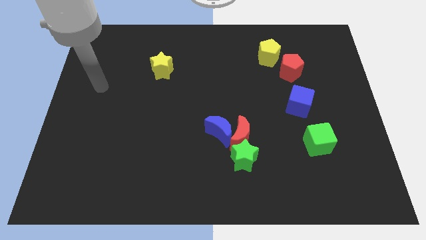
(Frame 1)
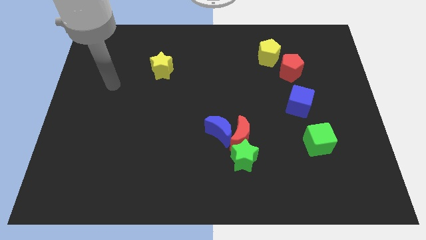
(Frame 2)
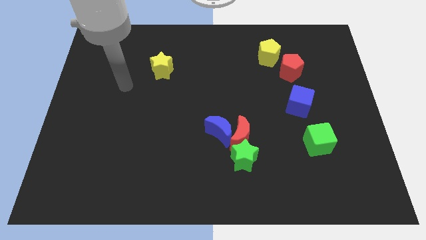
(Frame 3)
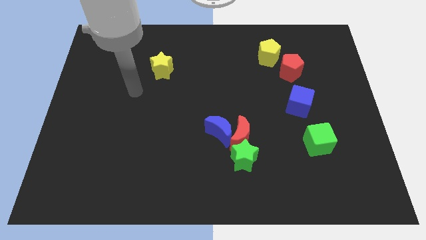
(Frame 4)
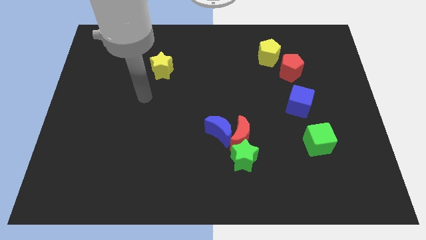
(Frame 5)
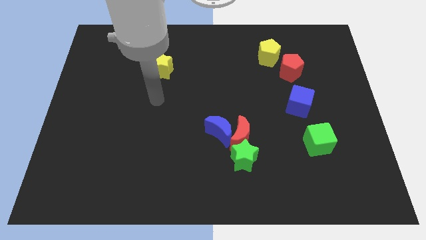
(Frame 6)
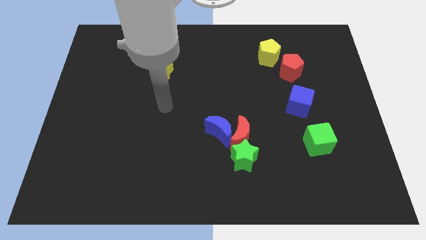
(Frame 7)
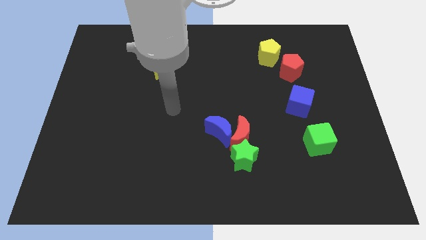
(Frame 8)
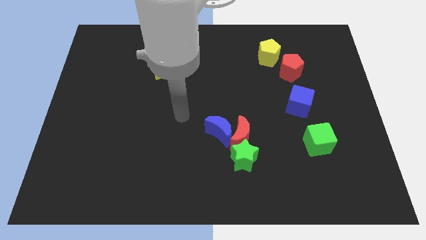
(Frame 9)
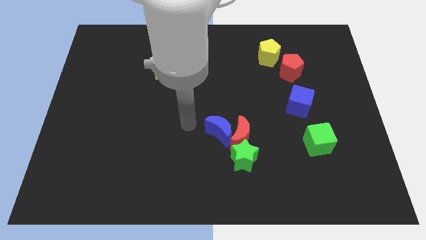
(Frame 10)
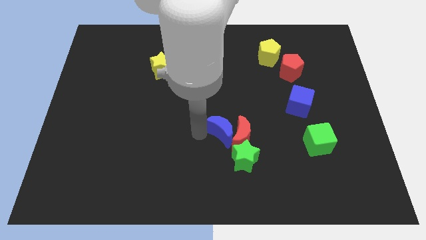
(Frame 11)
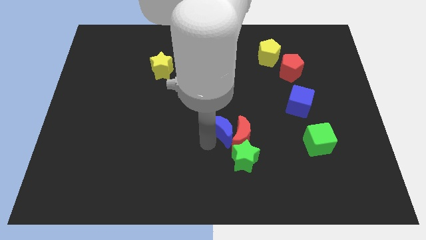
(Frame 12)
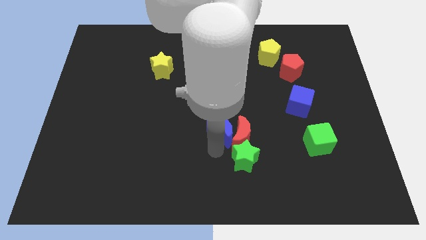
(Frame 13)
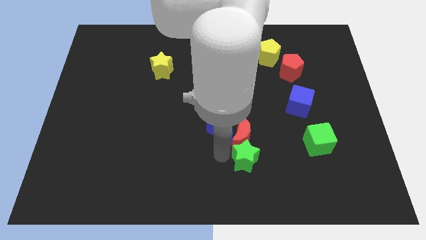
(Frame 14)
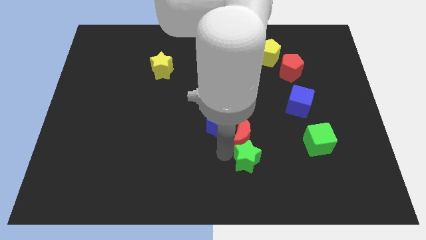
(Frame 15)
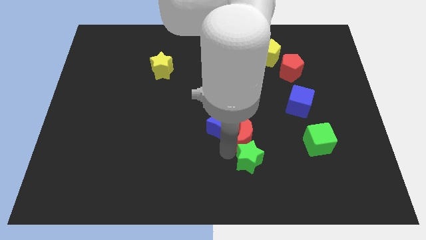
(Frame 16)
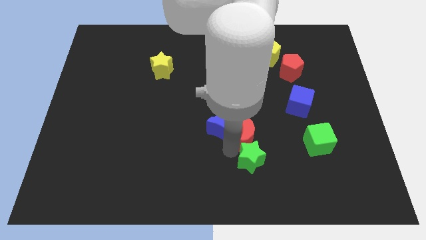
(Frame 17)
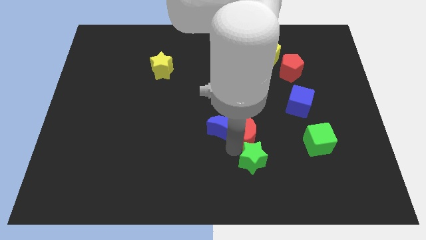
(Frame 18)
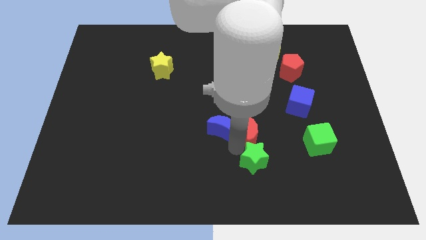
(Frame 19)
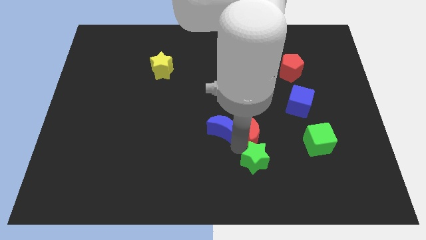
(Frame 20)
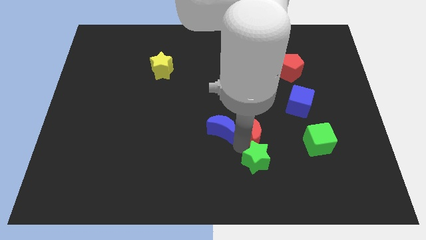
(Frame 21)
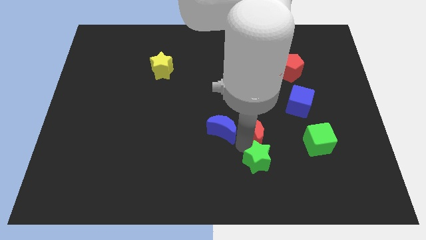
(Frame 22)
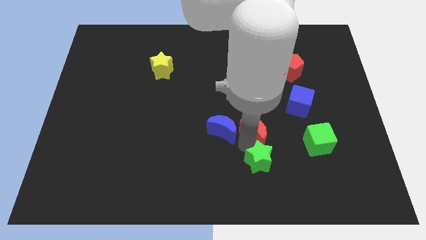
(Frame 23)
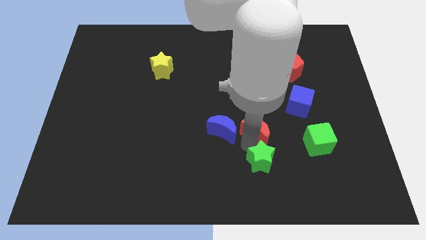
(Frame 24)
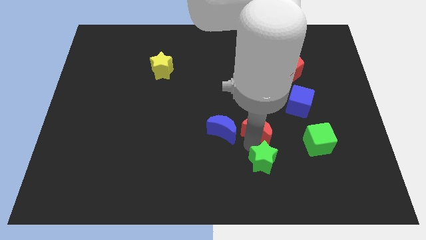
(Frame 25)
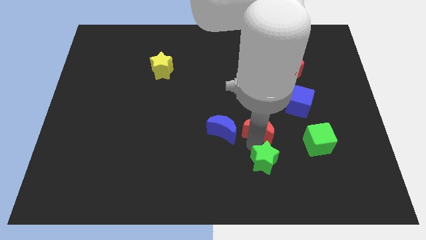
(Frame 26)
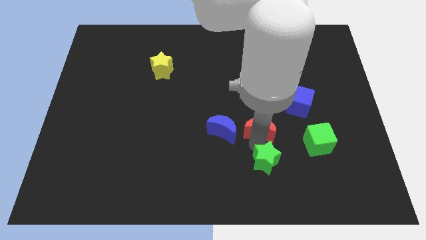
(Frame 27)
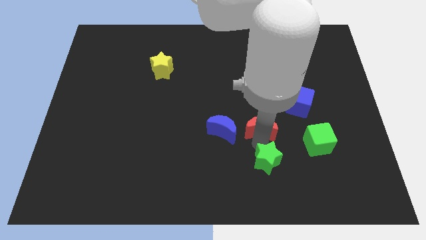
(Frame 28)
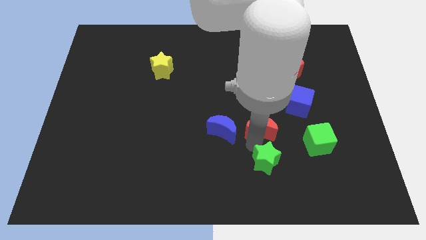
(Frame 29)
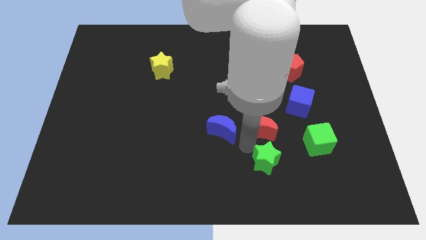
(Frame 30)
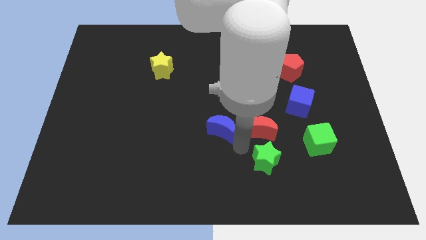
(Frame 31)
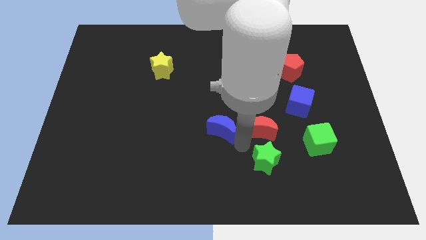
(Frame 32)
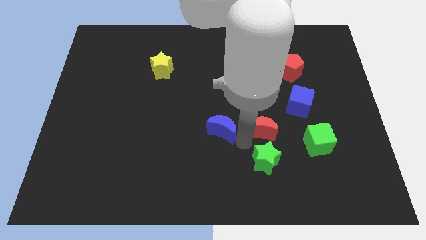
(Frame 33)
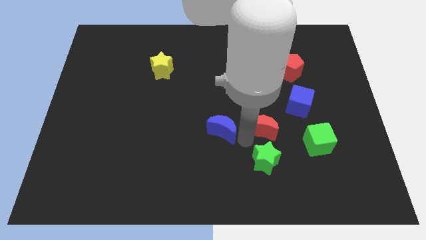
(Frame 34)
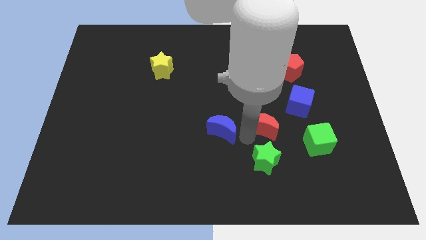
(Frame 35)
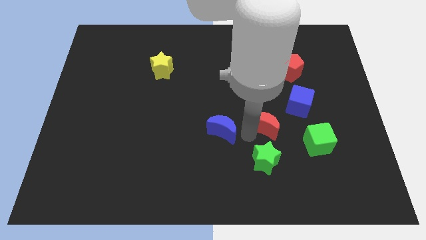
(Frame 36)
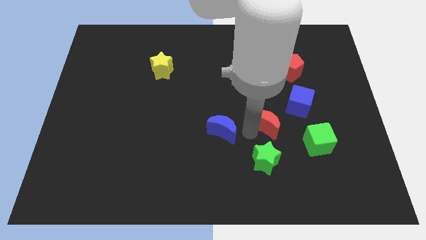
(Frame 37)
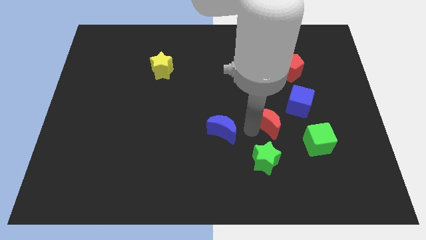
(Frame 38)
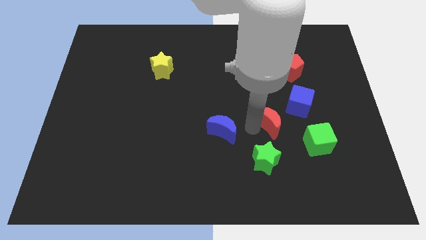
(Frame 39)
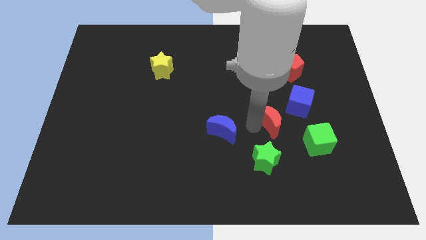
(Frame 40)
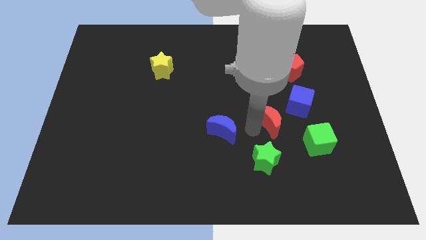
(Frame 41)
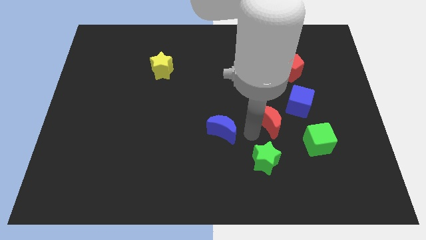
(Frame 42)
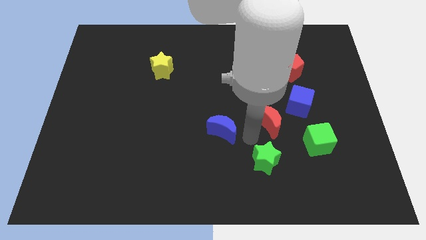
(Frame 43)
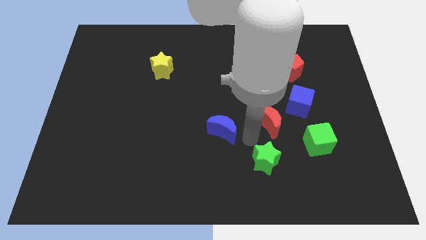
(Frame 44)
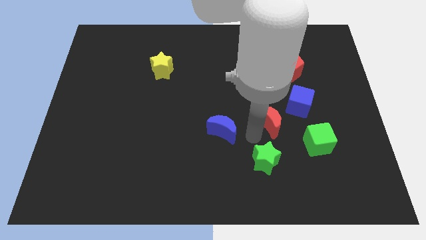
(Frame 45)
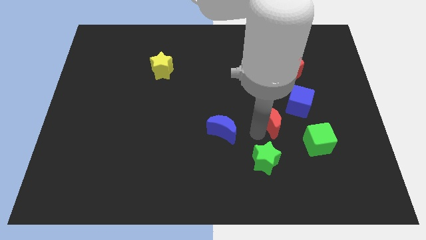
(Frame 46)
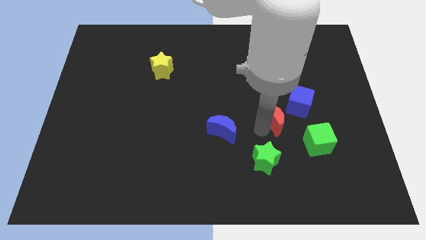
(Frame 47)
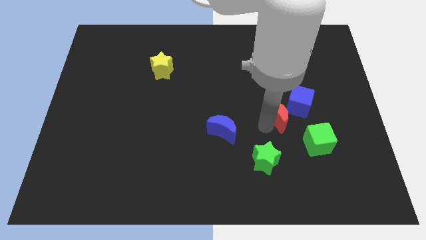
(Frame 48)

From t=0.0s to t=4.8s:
pull the red moon apart from the blue moon and green star

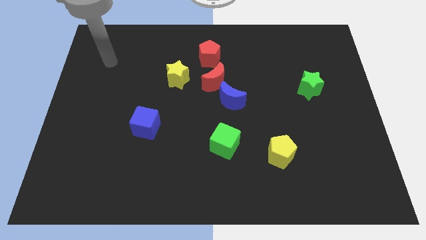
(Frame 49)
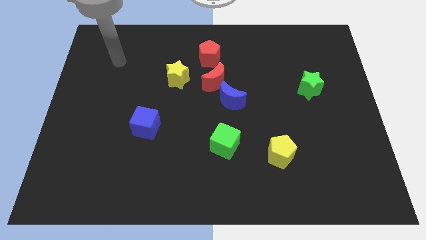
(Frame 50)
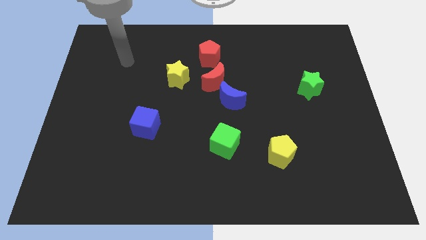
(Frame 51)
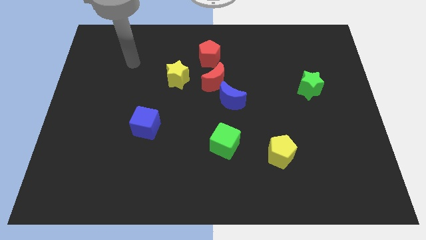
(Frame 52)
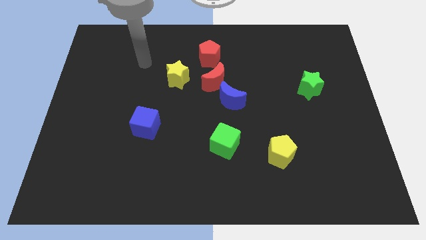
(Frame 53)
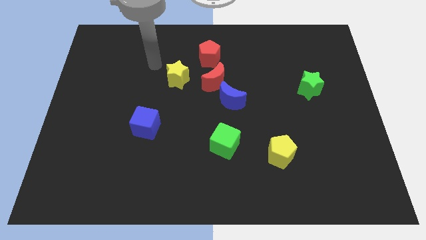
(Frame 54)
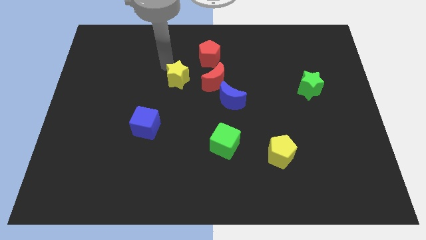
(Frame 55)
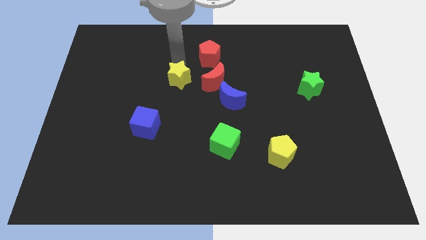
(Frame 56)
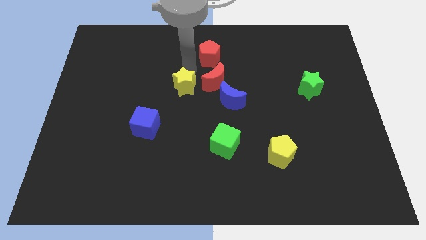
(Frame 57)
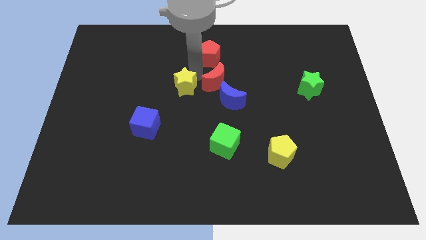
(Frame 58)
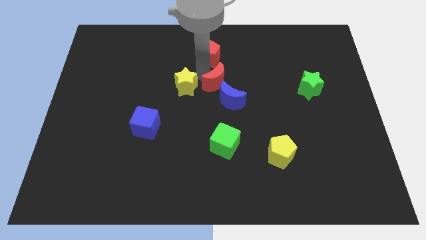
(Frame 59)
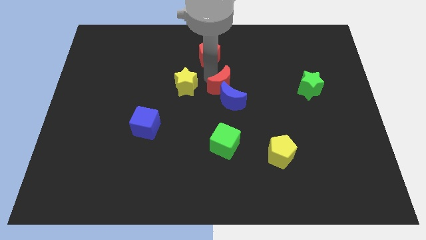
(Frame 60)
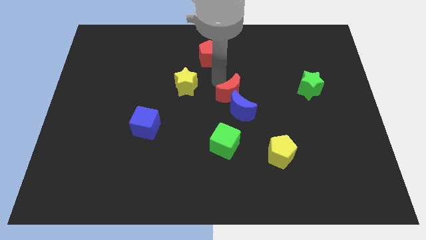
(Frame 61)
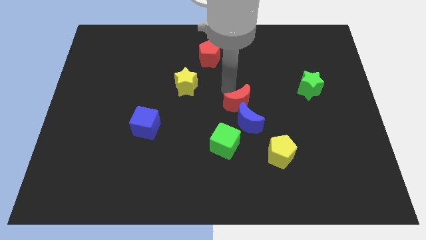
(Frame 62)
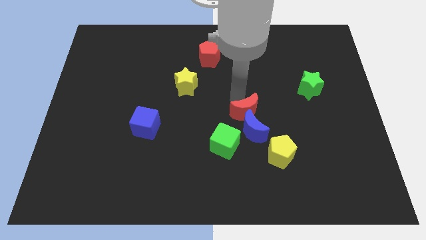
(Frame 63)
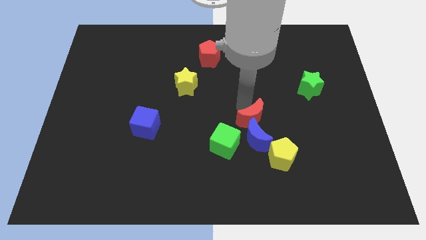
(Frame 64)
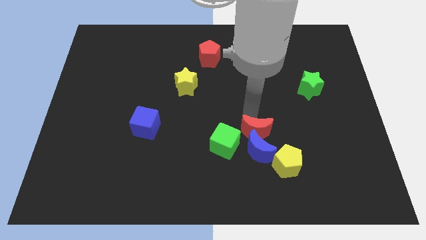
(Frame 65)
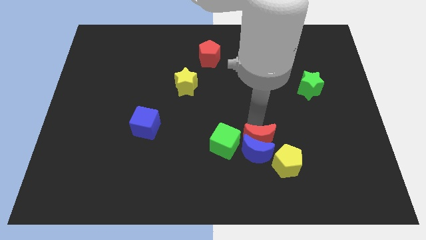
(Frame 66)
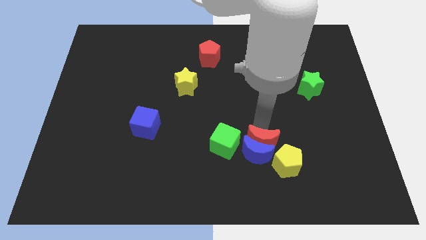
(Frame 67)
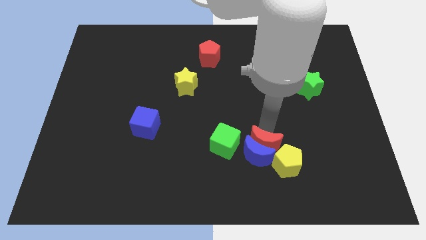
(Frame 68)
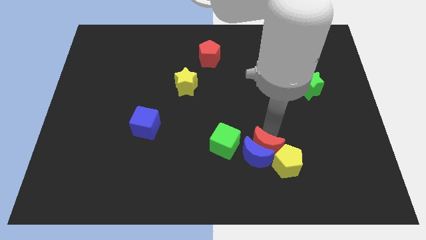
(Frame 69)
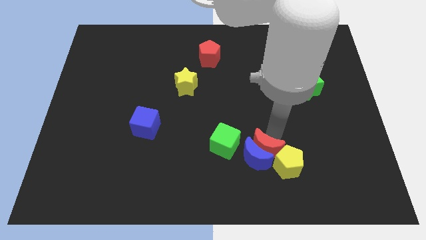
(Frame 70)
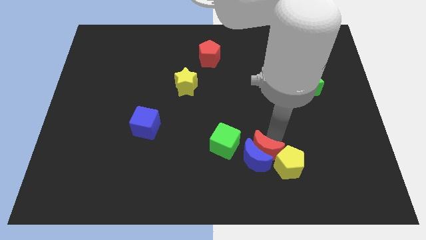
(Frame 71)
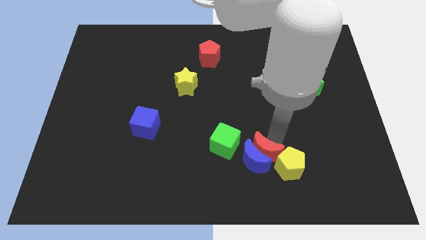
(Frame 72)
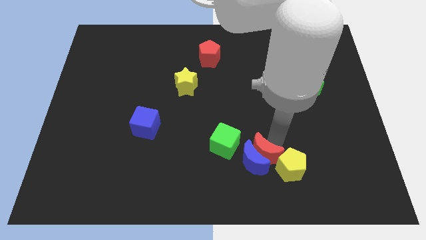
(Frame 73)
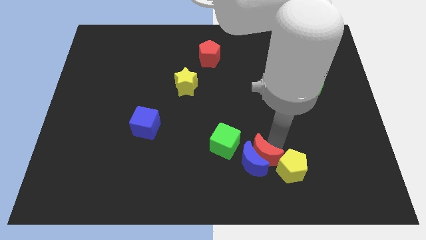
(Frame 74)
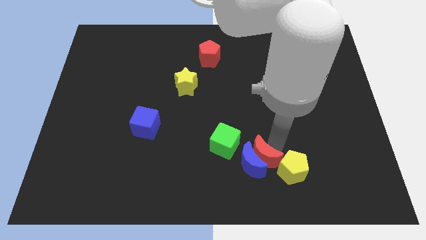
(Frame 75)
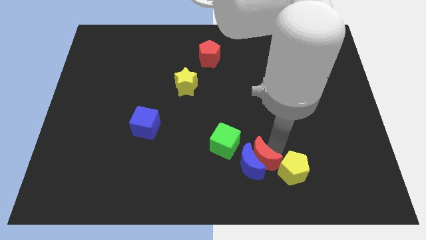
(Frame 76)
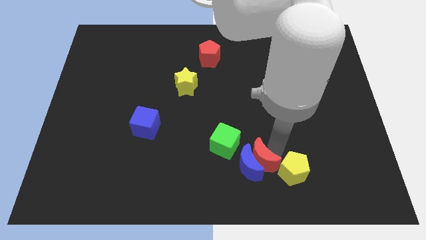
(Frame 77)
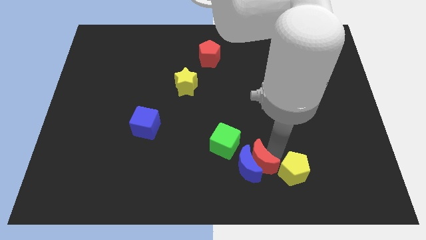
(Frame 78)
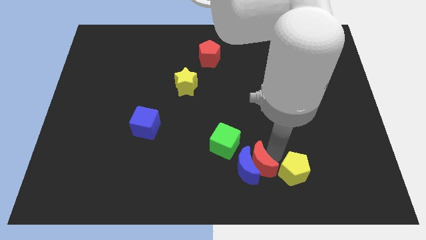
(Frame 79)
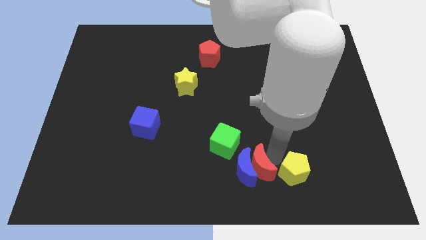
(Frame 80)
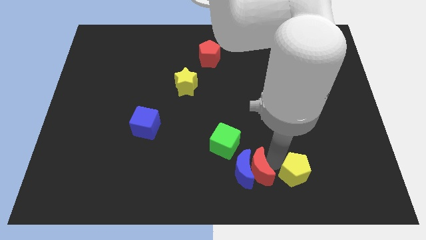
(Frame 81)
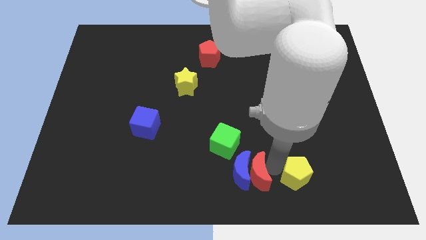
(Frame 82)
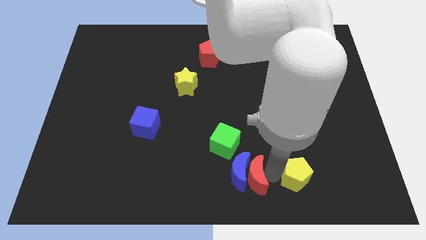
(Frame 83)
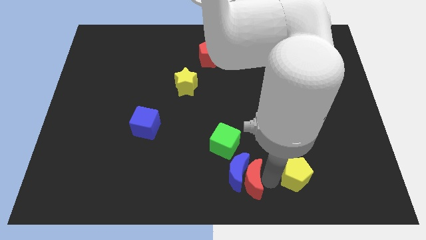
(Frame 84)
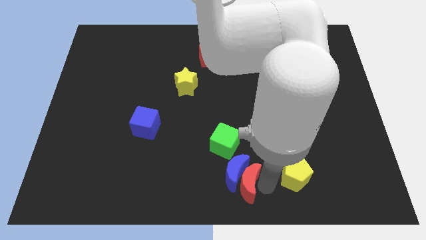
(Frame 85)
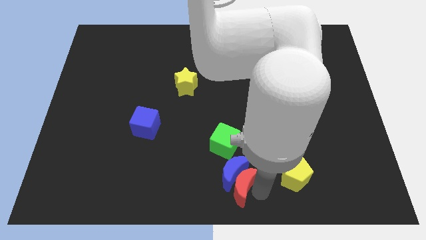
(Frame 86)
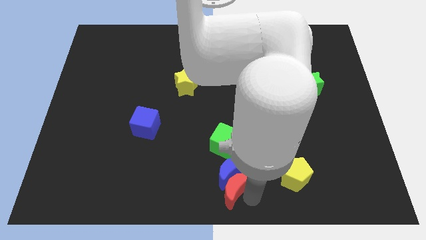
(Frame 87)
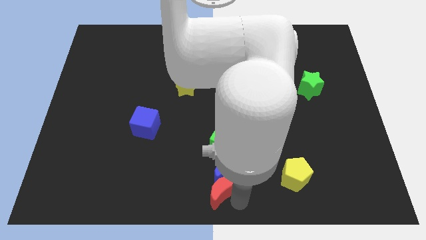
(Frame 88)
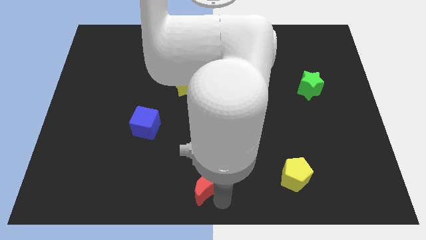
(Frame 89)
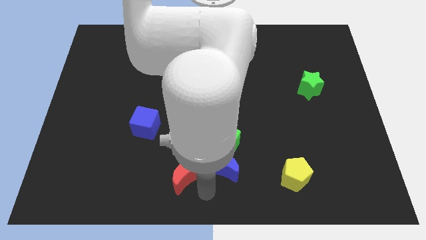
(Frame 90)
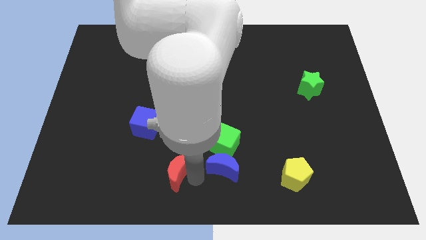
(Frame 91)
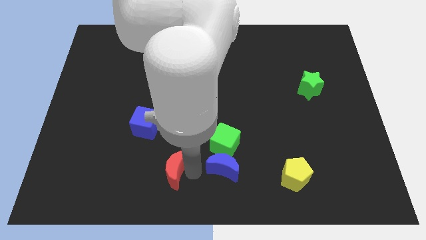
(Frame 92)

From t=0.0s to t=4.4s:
separate the blue moon from the red moon

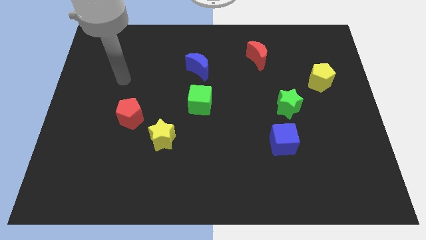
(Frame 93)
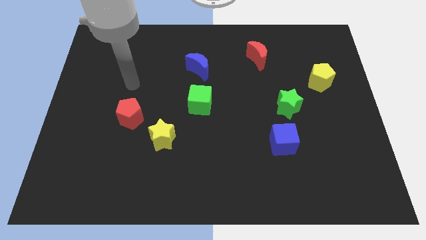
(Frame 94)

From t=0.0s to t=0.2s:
move the red pentagon away from the yellow star
